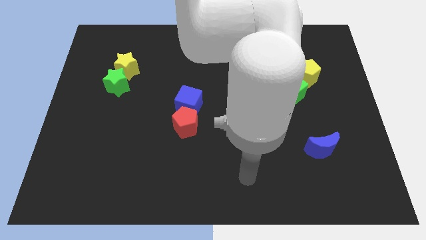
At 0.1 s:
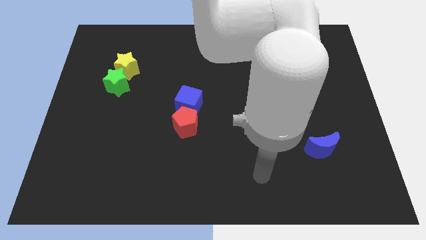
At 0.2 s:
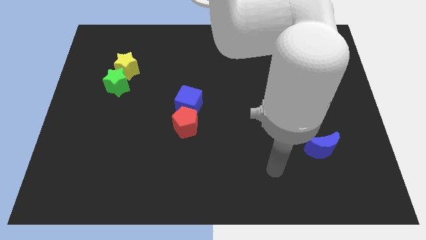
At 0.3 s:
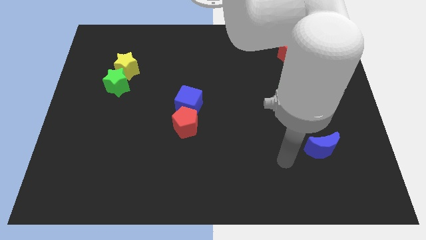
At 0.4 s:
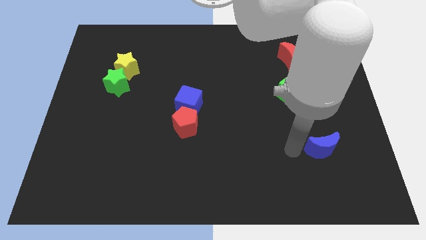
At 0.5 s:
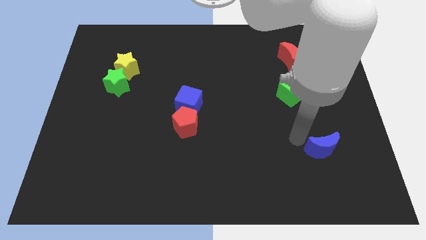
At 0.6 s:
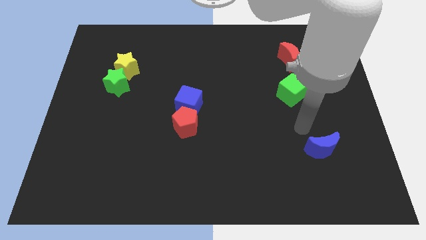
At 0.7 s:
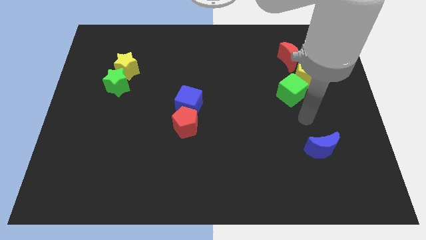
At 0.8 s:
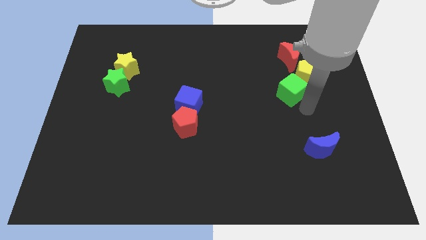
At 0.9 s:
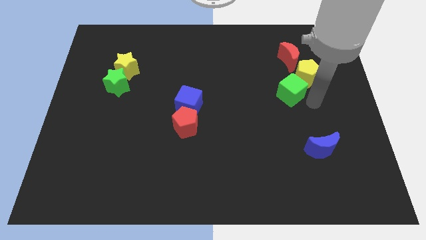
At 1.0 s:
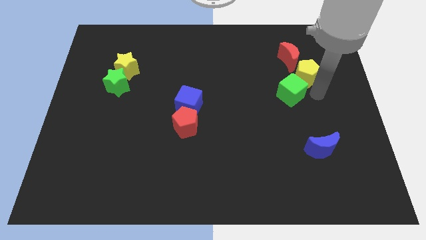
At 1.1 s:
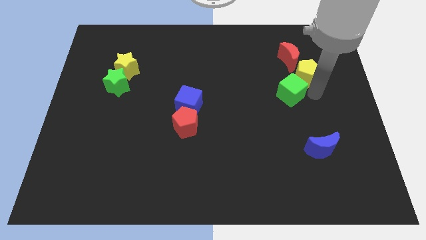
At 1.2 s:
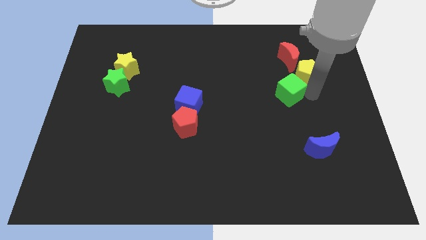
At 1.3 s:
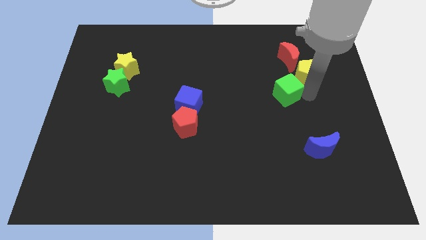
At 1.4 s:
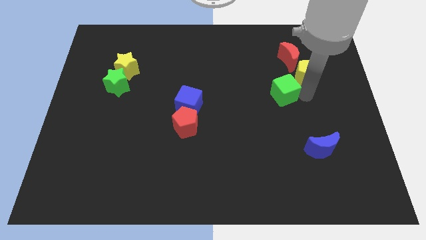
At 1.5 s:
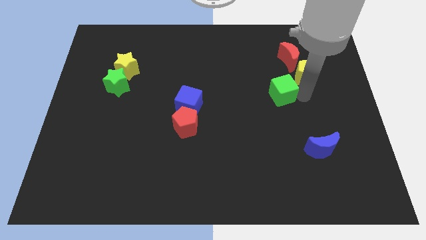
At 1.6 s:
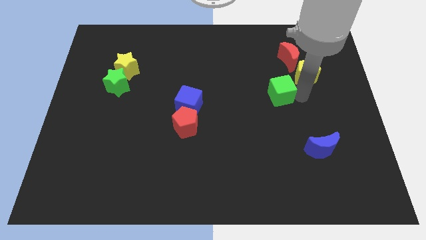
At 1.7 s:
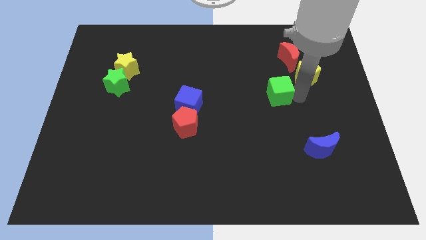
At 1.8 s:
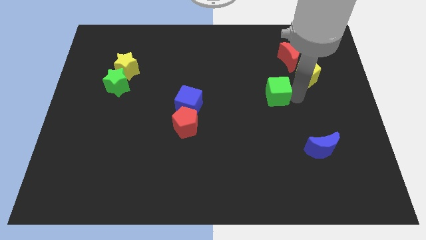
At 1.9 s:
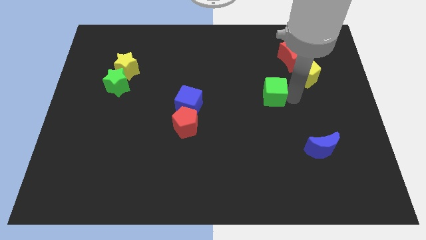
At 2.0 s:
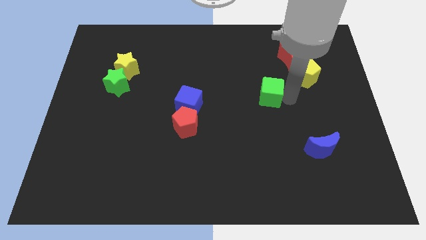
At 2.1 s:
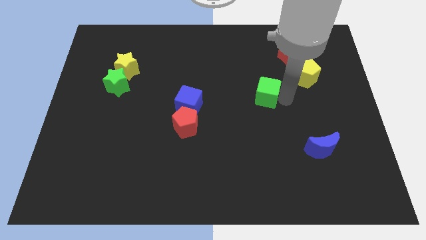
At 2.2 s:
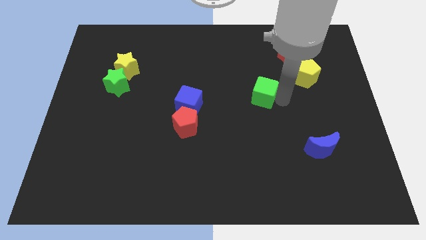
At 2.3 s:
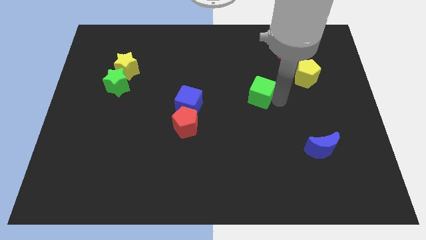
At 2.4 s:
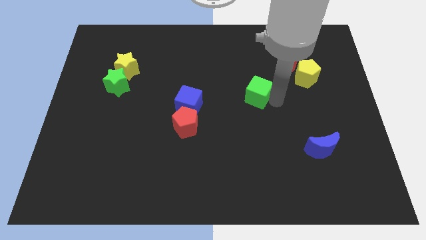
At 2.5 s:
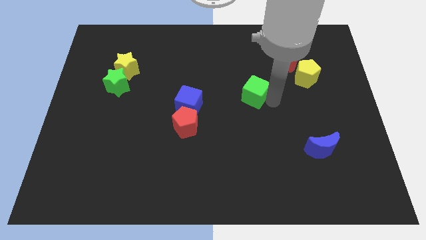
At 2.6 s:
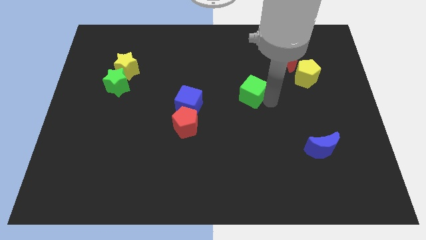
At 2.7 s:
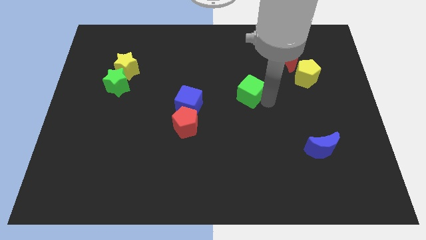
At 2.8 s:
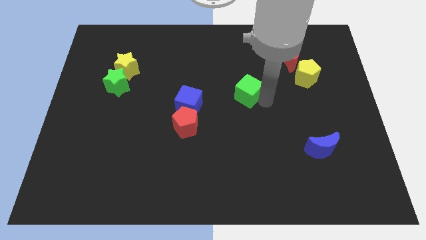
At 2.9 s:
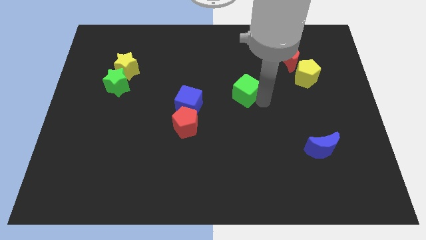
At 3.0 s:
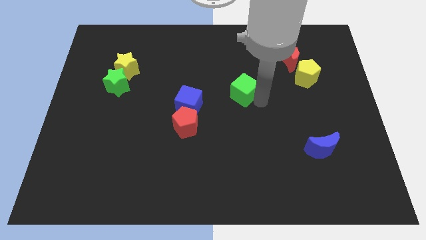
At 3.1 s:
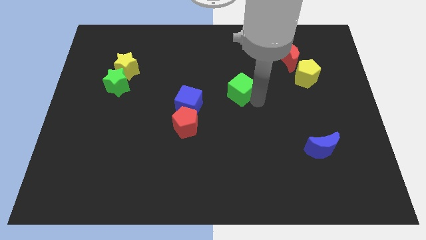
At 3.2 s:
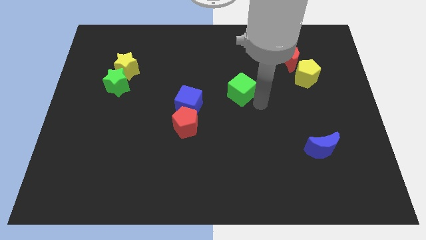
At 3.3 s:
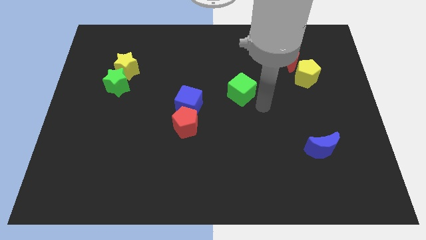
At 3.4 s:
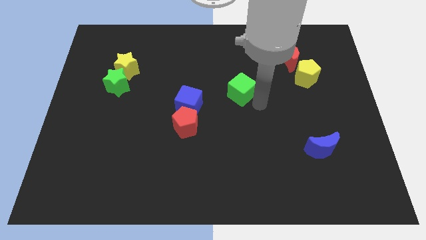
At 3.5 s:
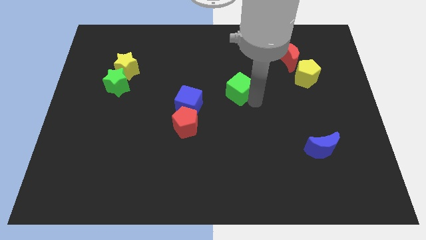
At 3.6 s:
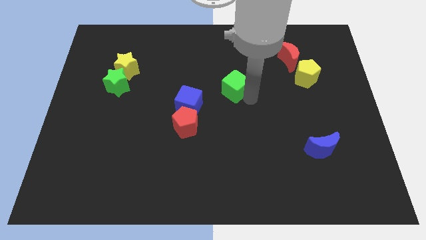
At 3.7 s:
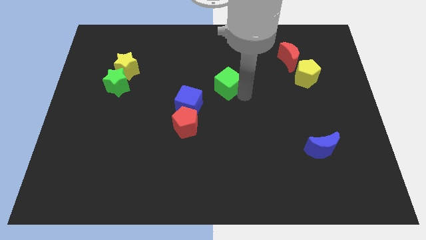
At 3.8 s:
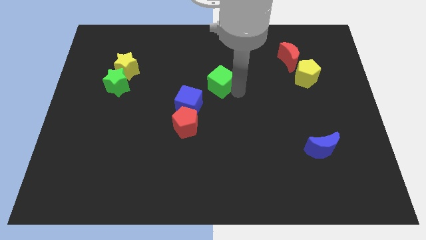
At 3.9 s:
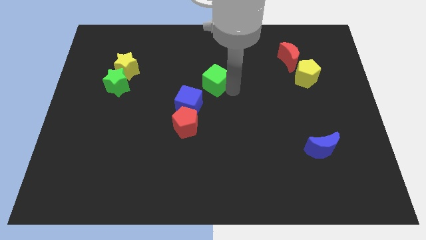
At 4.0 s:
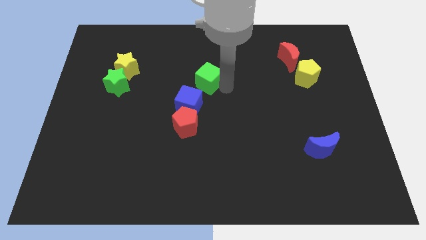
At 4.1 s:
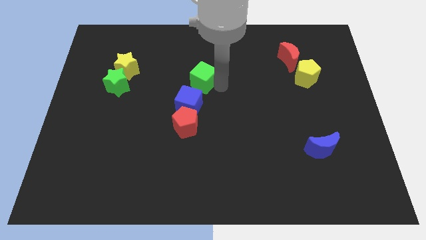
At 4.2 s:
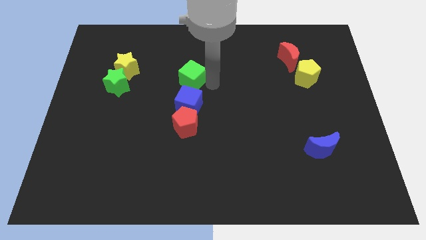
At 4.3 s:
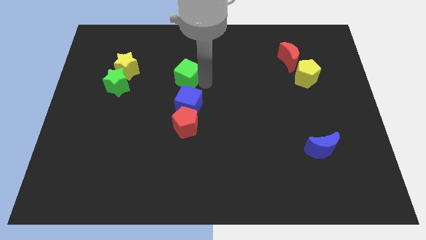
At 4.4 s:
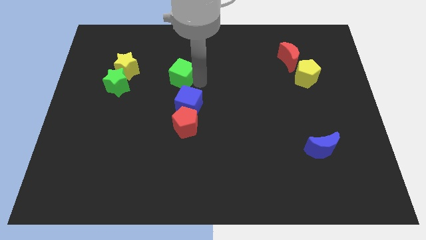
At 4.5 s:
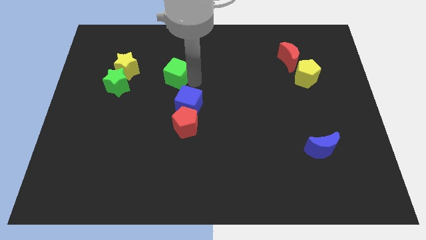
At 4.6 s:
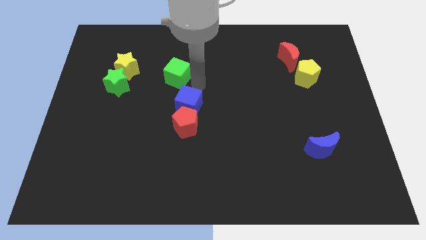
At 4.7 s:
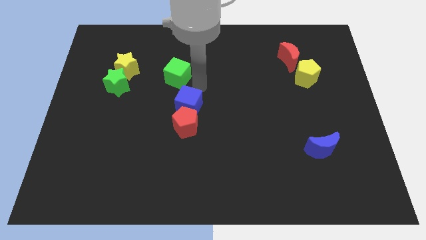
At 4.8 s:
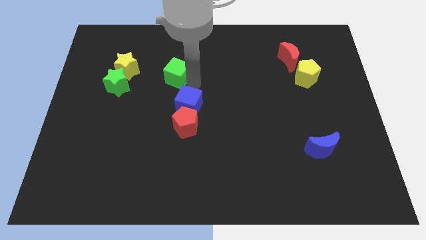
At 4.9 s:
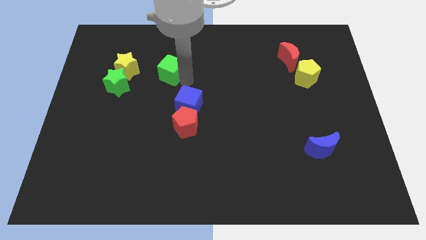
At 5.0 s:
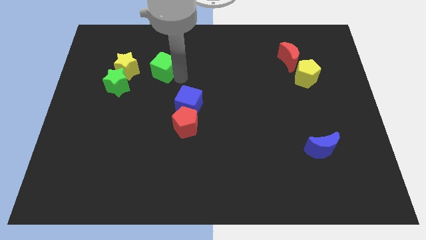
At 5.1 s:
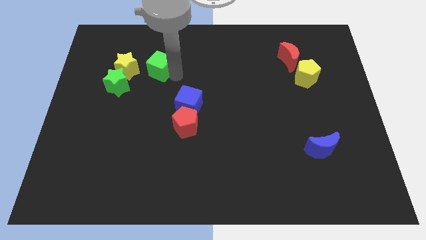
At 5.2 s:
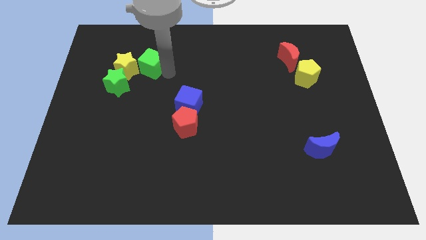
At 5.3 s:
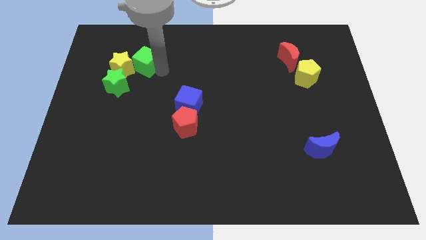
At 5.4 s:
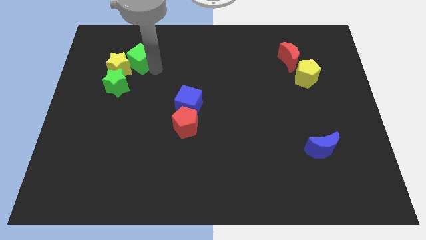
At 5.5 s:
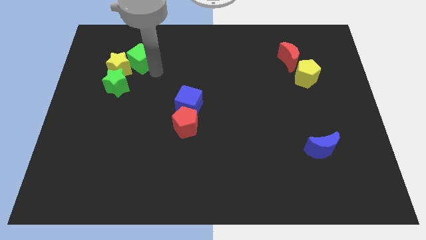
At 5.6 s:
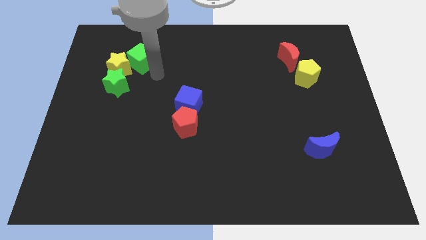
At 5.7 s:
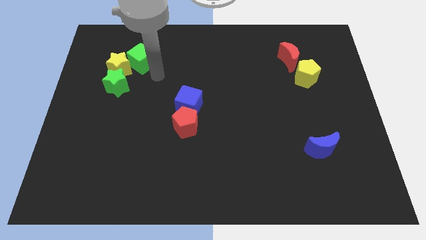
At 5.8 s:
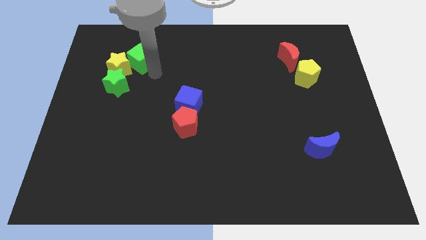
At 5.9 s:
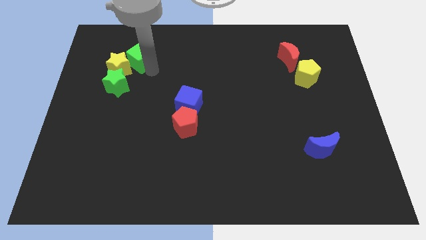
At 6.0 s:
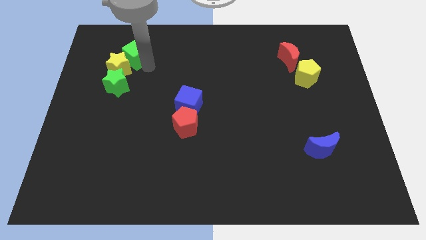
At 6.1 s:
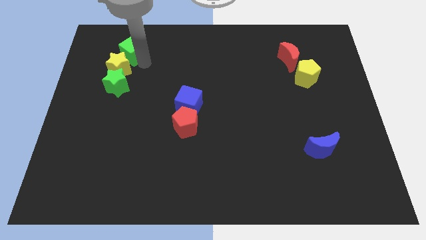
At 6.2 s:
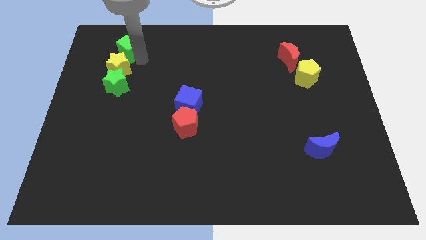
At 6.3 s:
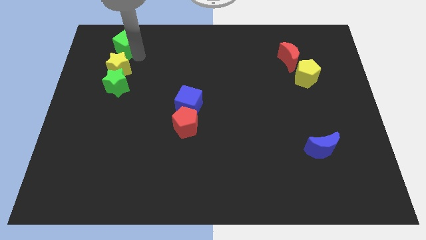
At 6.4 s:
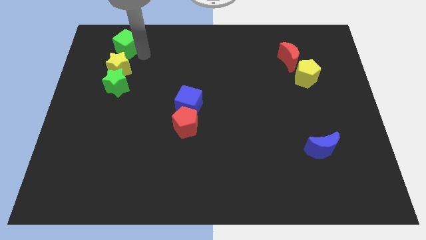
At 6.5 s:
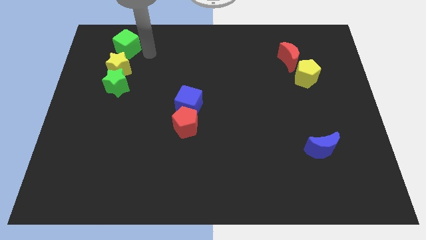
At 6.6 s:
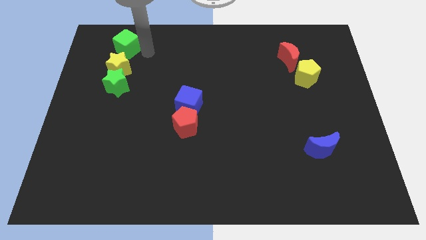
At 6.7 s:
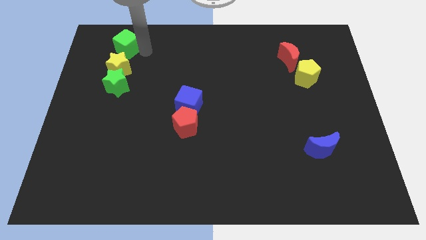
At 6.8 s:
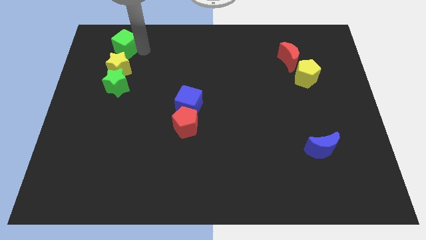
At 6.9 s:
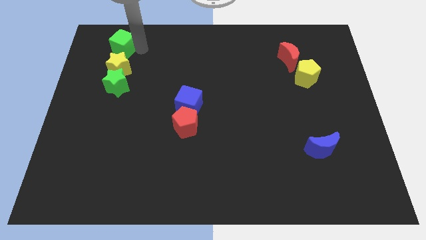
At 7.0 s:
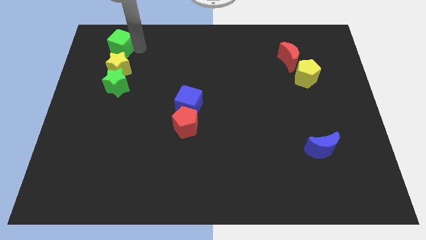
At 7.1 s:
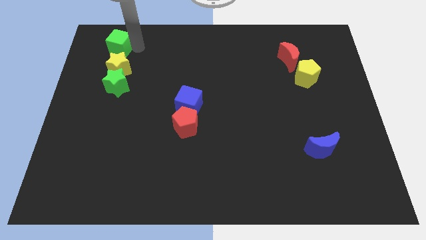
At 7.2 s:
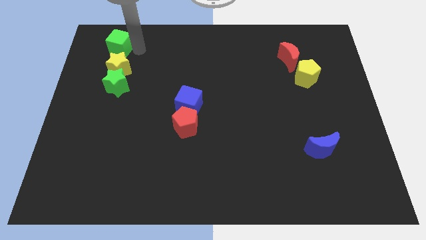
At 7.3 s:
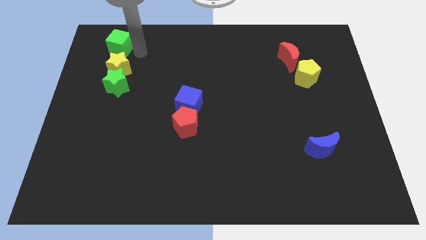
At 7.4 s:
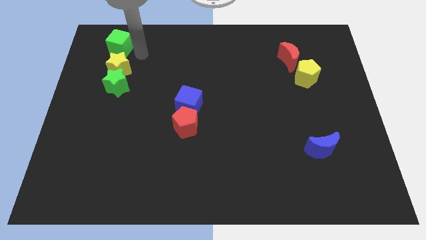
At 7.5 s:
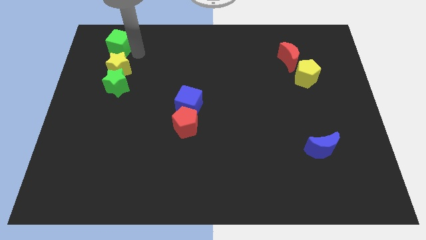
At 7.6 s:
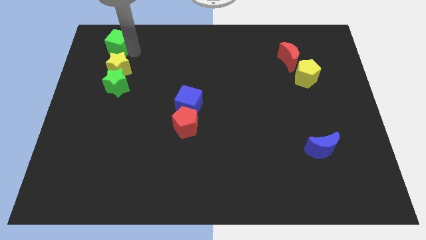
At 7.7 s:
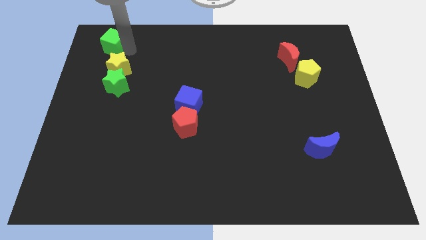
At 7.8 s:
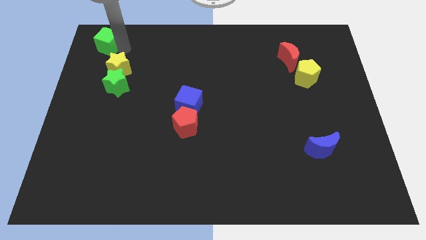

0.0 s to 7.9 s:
put the green cube to the top left of the board
